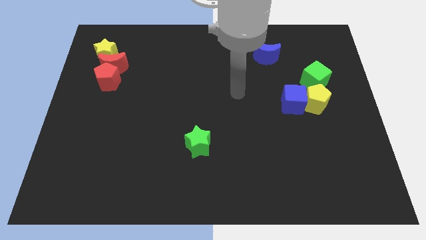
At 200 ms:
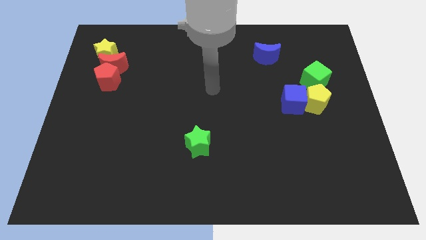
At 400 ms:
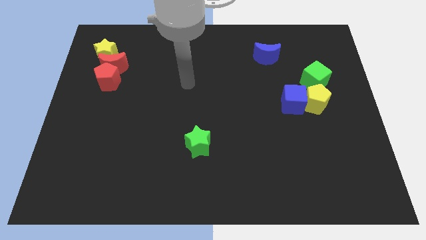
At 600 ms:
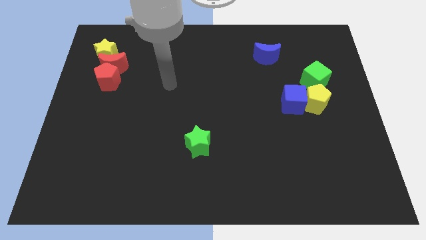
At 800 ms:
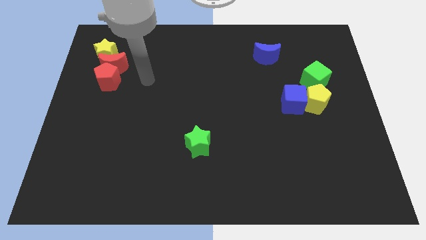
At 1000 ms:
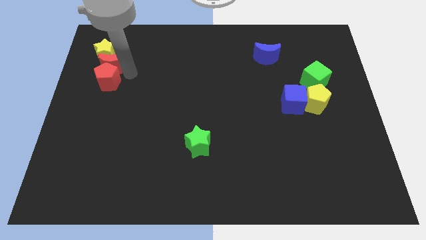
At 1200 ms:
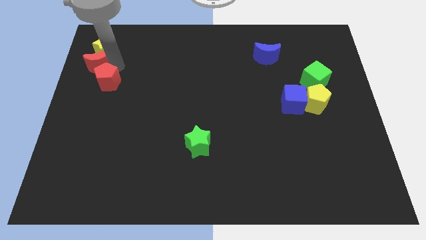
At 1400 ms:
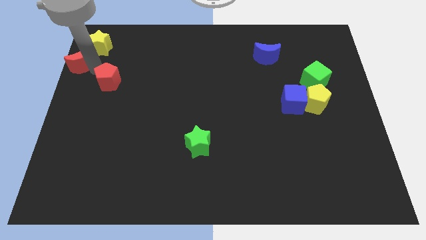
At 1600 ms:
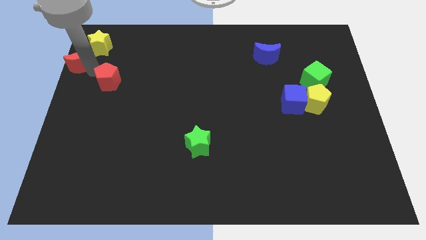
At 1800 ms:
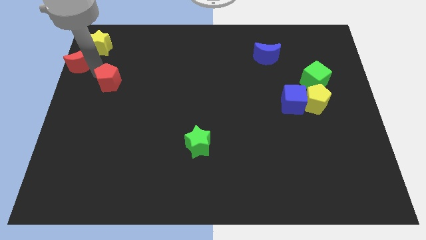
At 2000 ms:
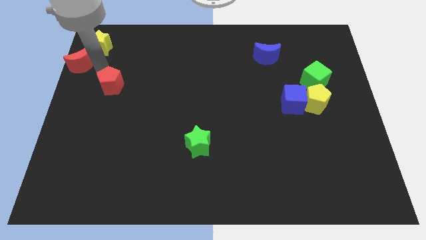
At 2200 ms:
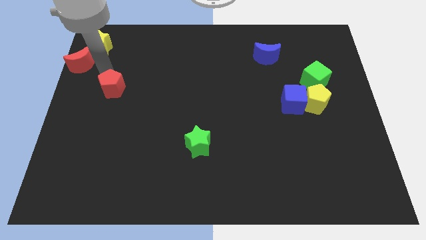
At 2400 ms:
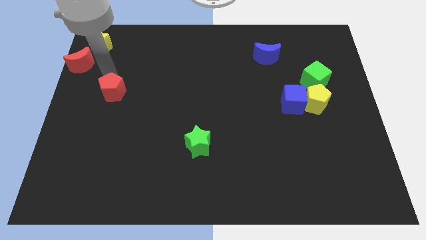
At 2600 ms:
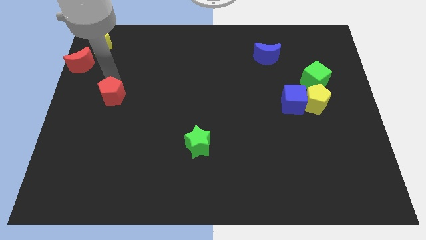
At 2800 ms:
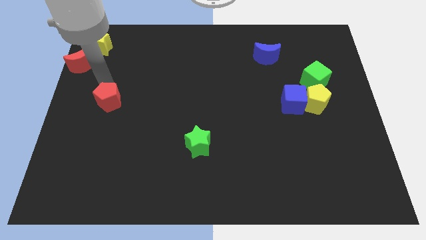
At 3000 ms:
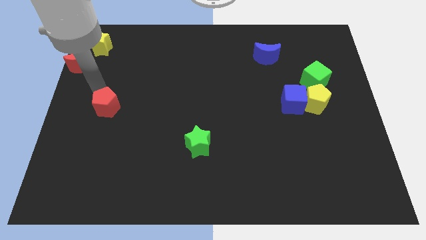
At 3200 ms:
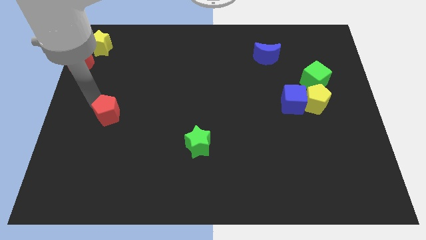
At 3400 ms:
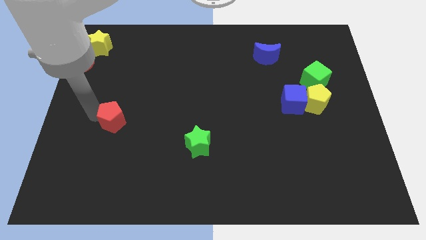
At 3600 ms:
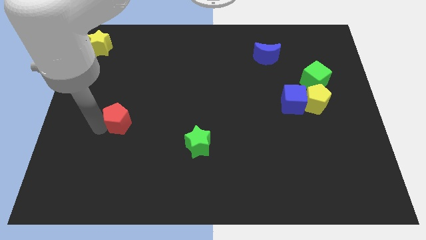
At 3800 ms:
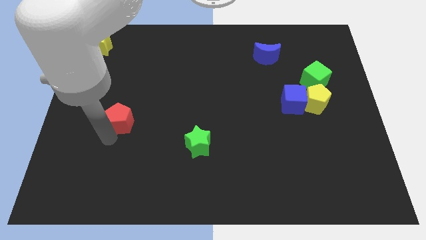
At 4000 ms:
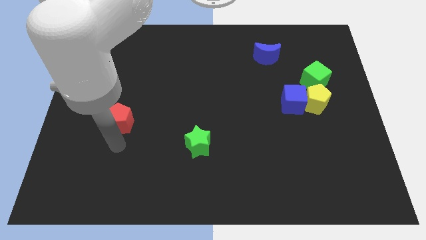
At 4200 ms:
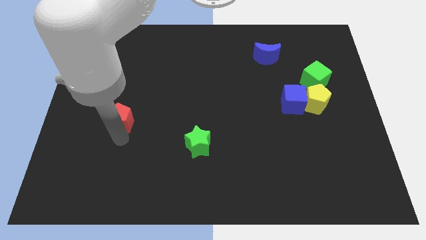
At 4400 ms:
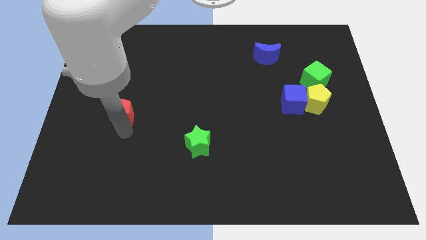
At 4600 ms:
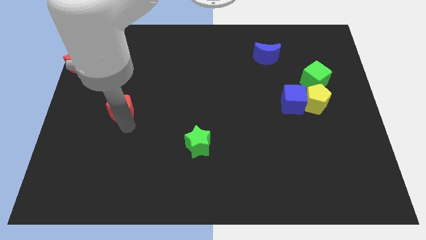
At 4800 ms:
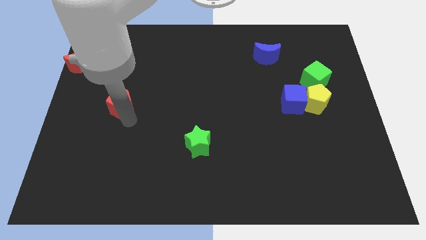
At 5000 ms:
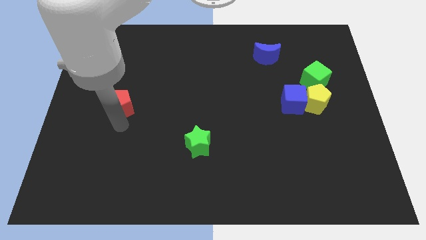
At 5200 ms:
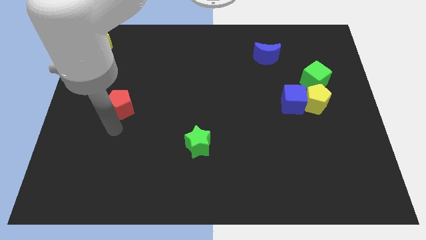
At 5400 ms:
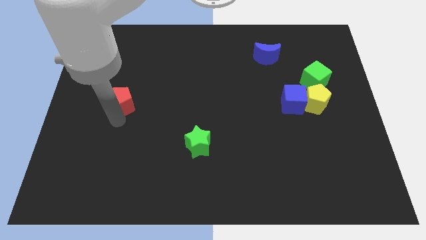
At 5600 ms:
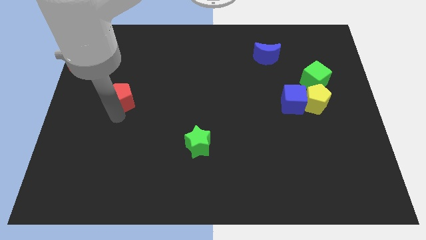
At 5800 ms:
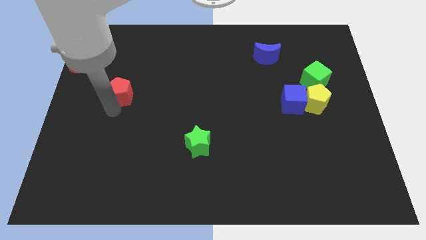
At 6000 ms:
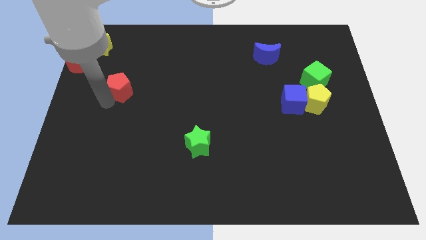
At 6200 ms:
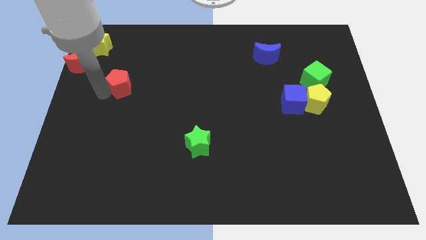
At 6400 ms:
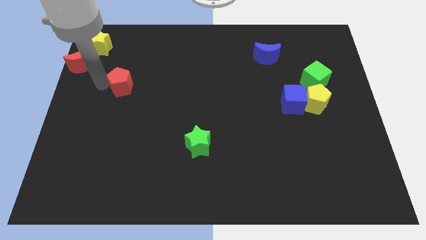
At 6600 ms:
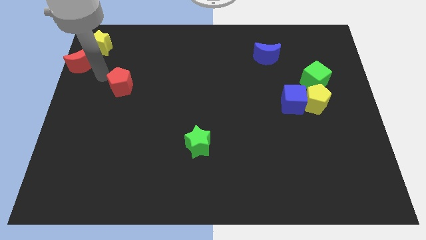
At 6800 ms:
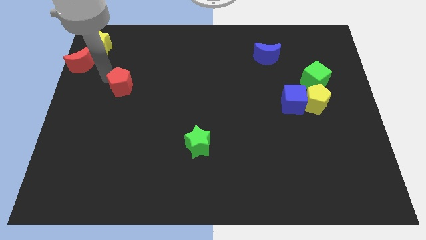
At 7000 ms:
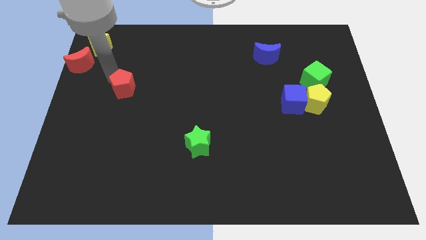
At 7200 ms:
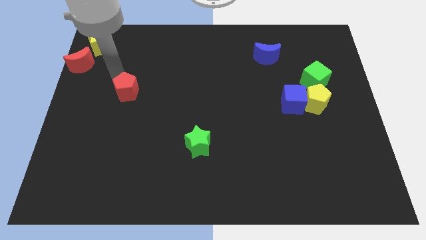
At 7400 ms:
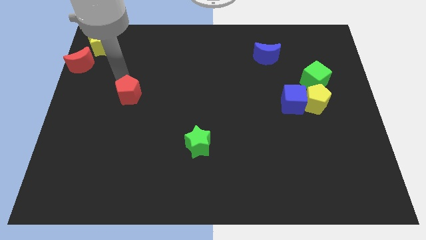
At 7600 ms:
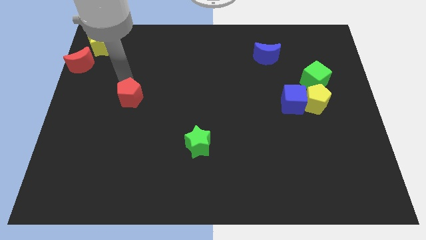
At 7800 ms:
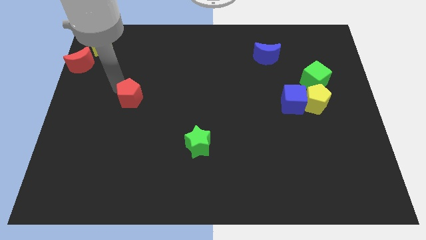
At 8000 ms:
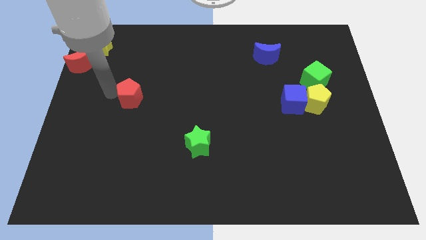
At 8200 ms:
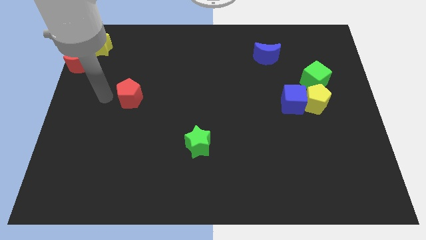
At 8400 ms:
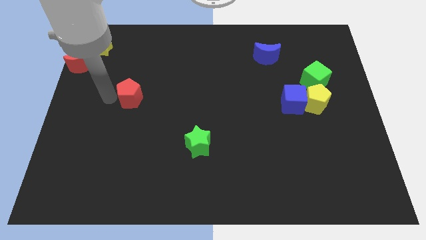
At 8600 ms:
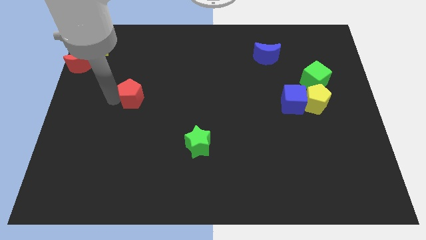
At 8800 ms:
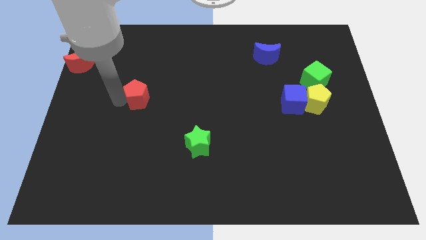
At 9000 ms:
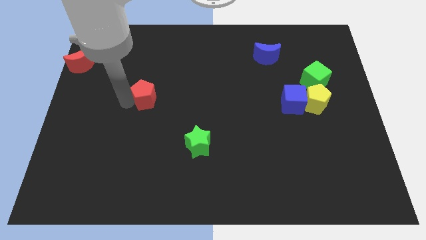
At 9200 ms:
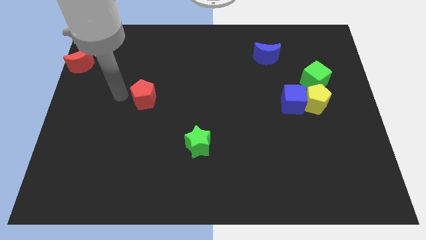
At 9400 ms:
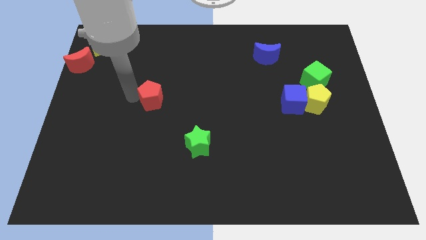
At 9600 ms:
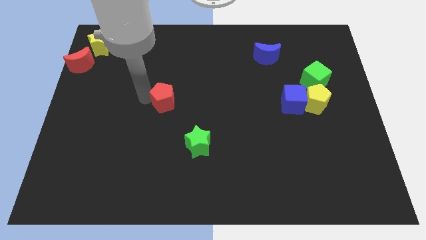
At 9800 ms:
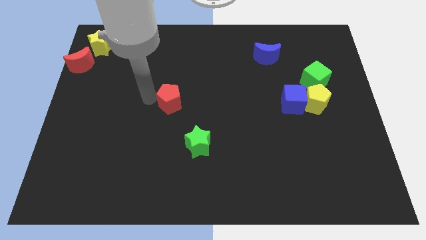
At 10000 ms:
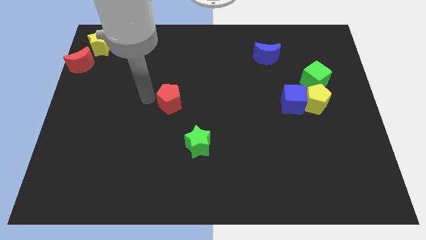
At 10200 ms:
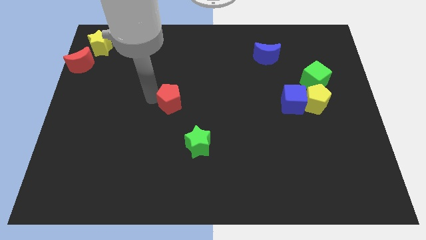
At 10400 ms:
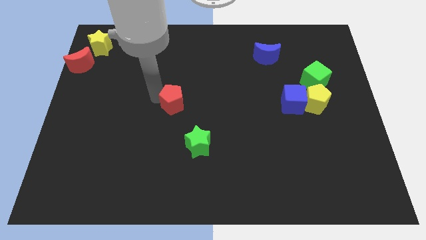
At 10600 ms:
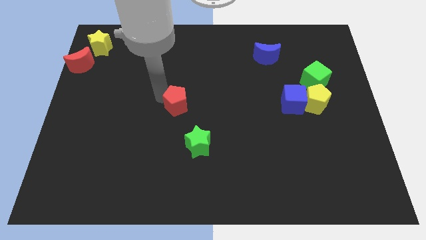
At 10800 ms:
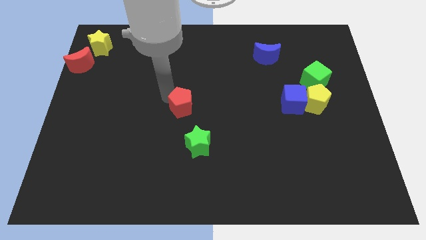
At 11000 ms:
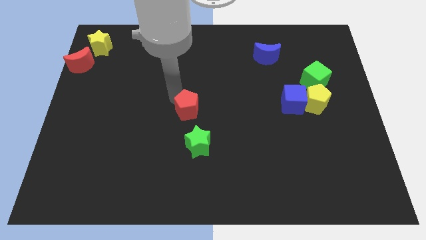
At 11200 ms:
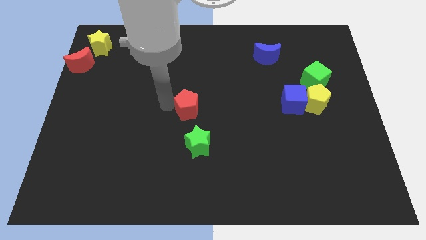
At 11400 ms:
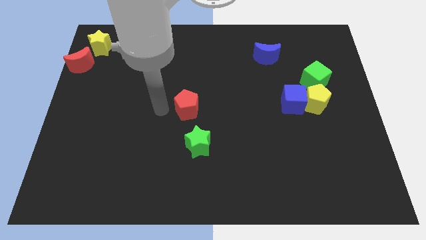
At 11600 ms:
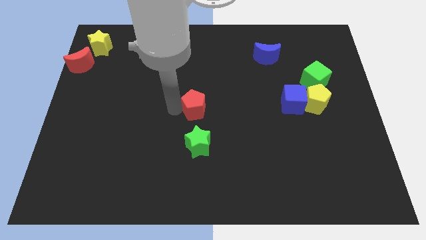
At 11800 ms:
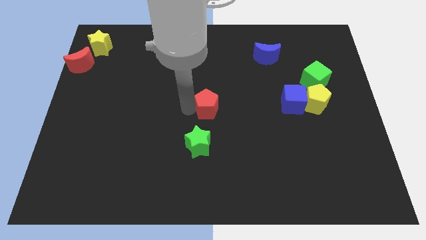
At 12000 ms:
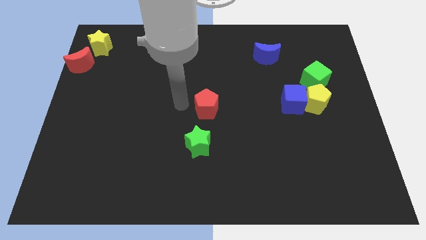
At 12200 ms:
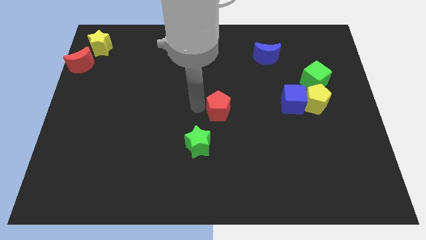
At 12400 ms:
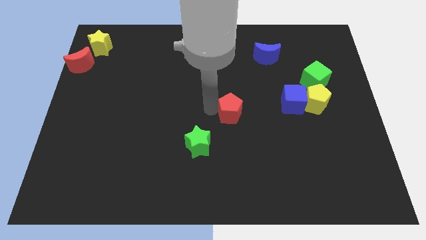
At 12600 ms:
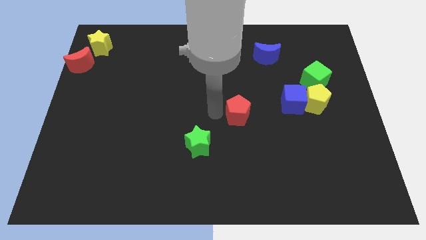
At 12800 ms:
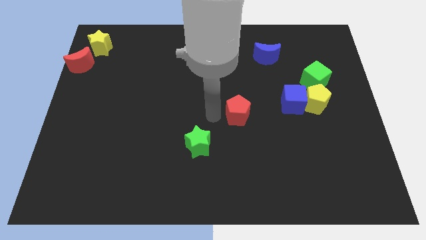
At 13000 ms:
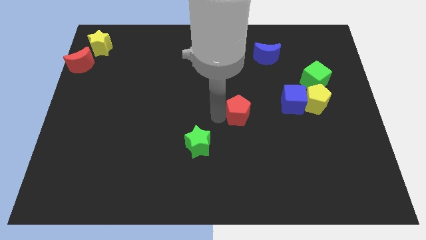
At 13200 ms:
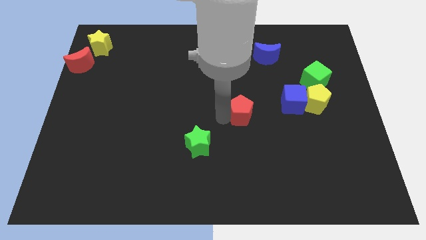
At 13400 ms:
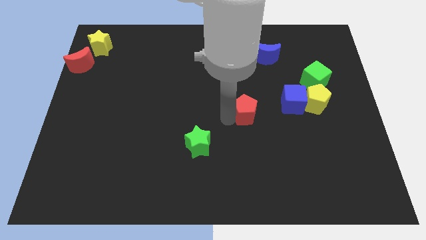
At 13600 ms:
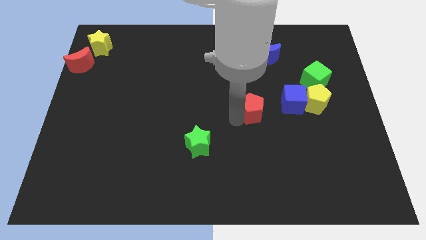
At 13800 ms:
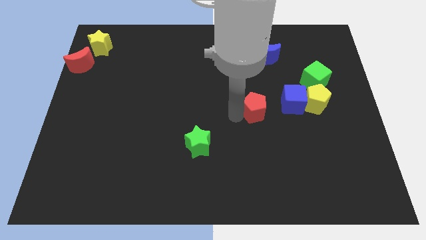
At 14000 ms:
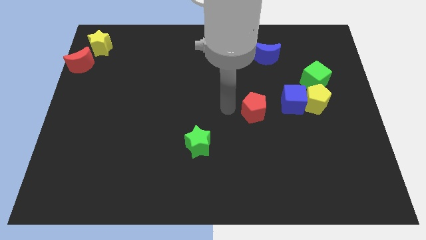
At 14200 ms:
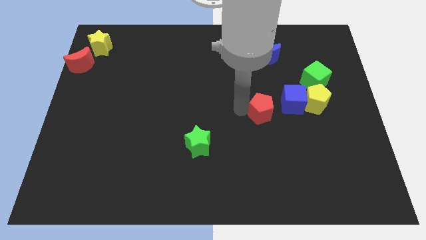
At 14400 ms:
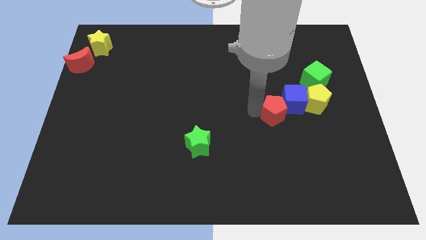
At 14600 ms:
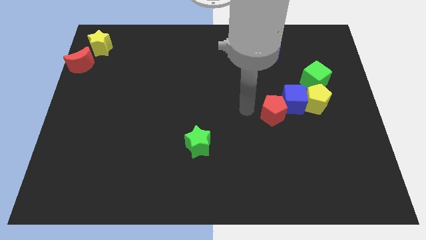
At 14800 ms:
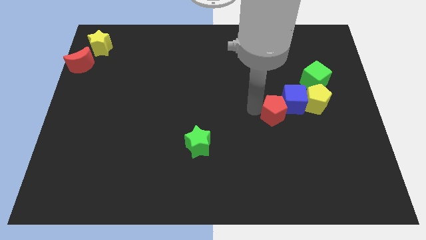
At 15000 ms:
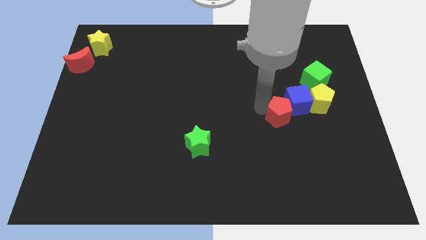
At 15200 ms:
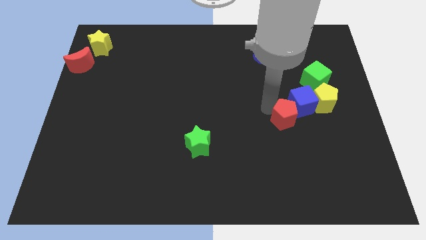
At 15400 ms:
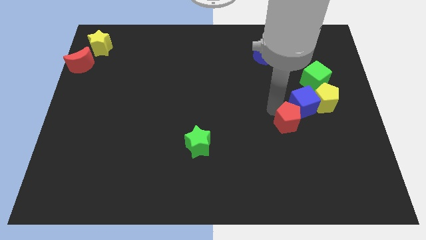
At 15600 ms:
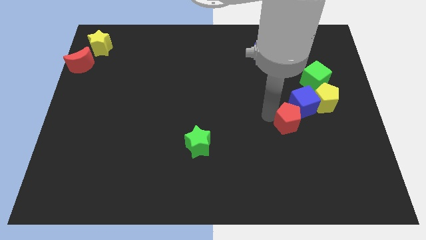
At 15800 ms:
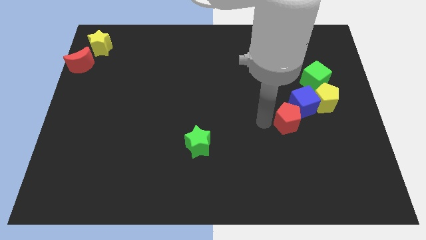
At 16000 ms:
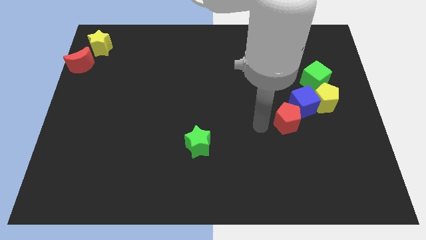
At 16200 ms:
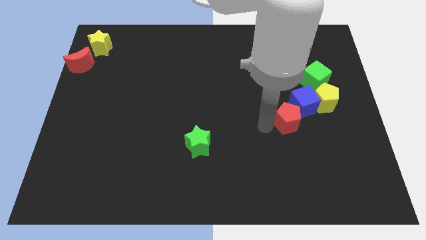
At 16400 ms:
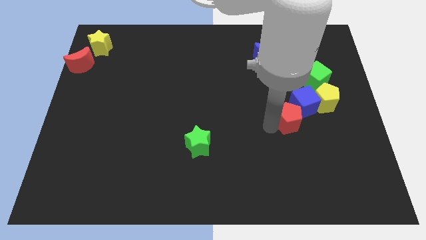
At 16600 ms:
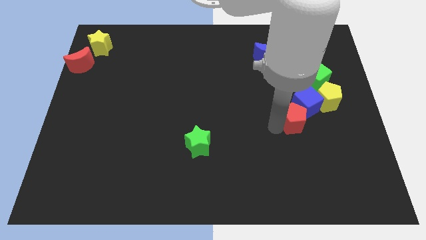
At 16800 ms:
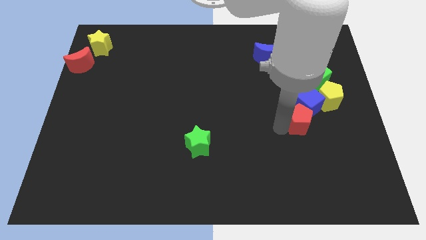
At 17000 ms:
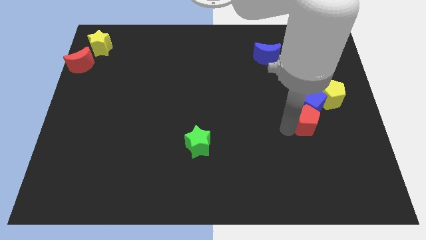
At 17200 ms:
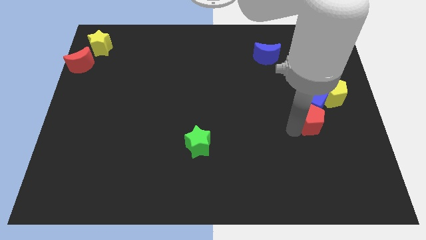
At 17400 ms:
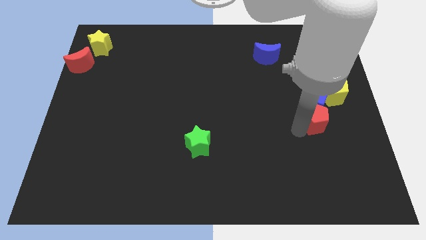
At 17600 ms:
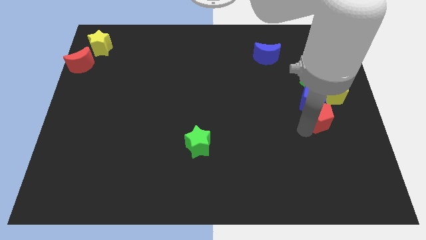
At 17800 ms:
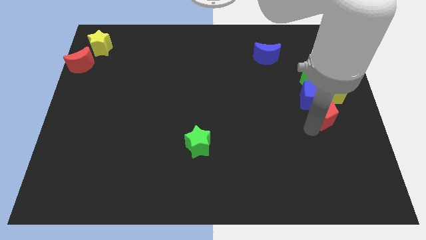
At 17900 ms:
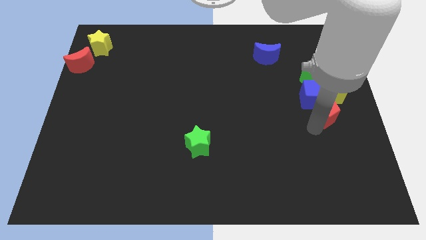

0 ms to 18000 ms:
slide the red pentagon to the right side
